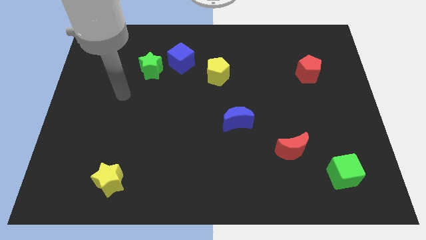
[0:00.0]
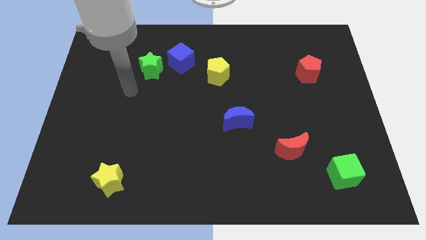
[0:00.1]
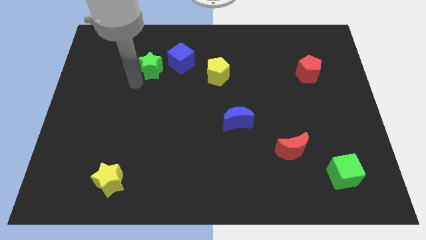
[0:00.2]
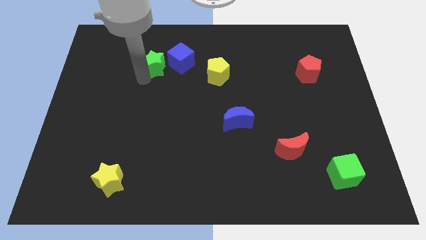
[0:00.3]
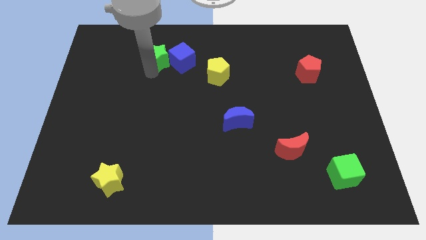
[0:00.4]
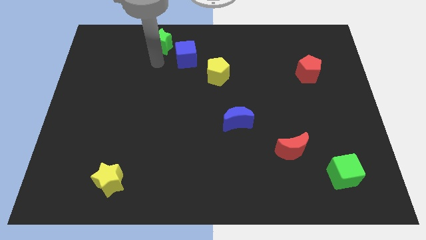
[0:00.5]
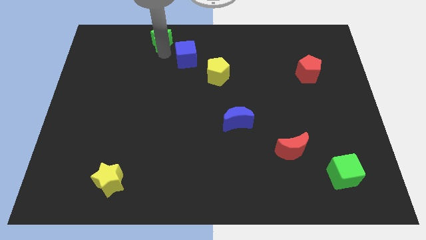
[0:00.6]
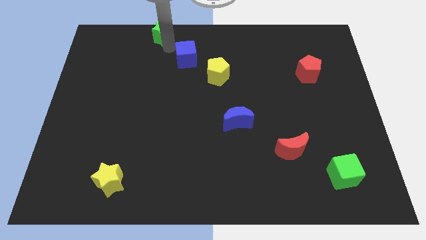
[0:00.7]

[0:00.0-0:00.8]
separate the blue cube from the green star

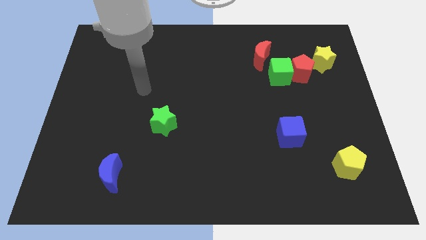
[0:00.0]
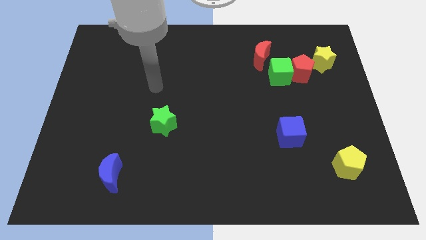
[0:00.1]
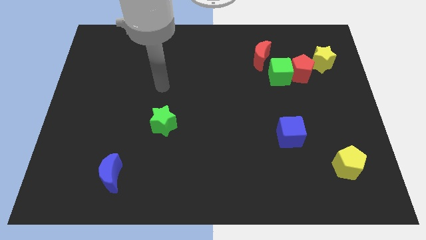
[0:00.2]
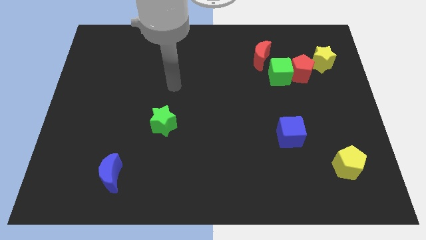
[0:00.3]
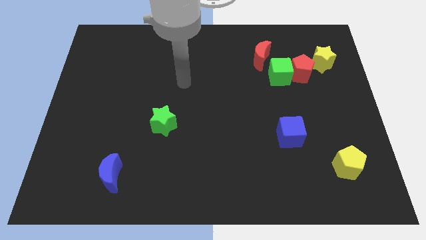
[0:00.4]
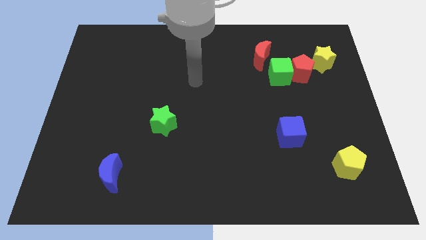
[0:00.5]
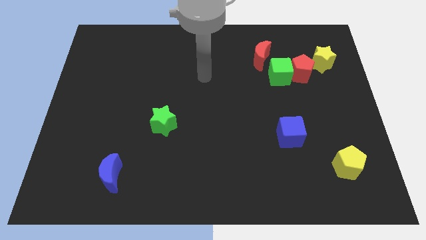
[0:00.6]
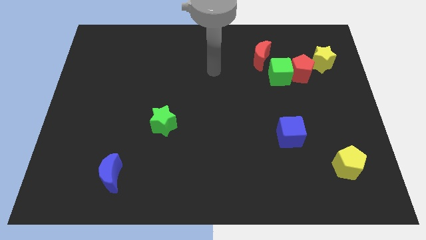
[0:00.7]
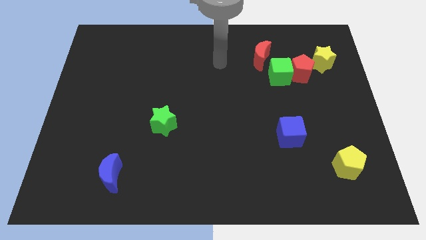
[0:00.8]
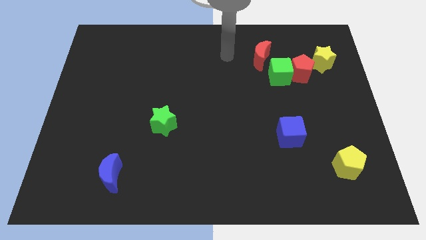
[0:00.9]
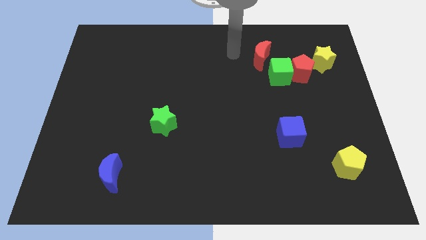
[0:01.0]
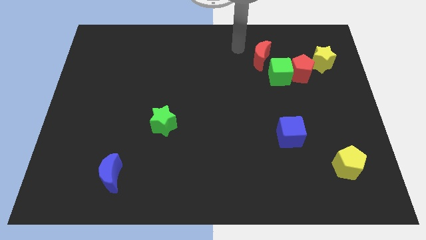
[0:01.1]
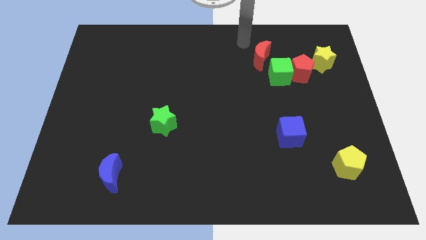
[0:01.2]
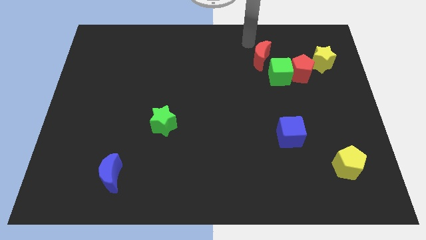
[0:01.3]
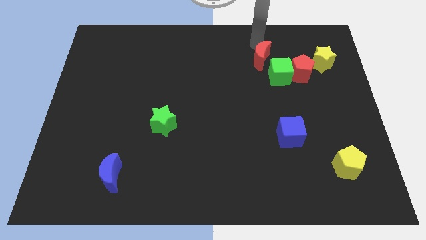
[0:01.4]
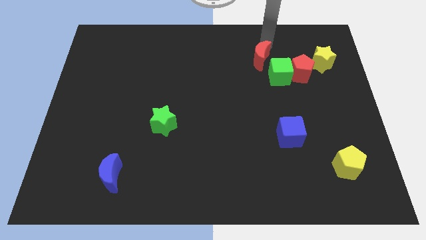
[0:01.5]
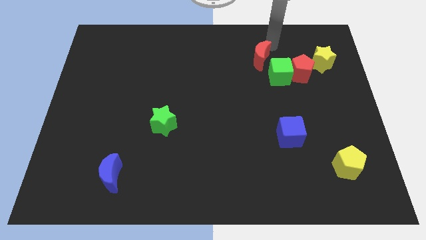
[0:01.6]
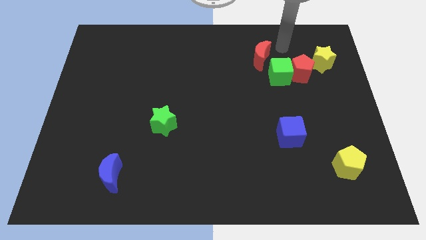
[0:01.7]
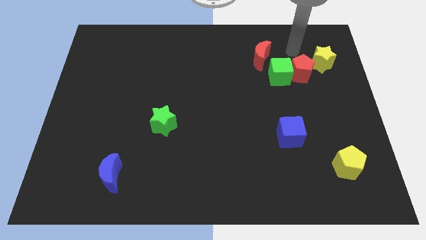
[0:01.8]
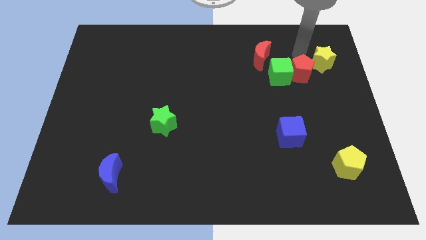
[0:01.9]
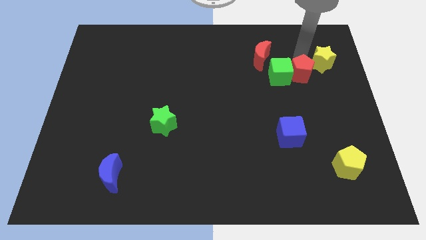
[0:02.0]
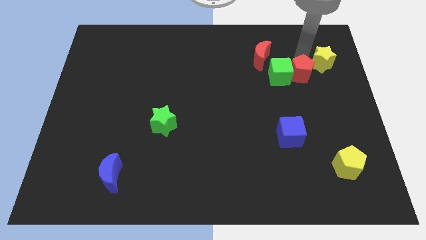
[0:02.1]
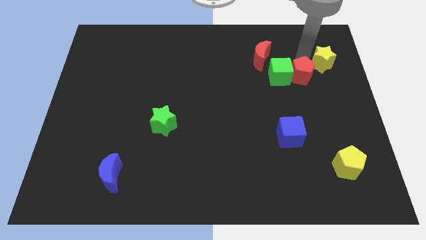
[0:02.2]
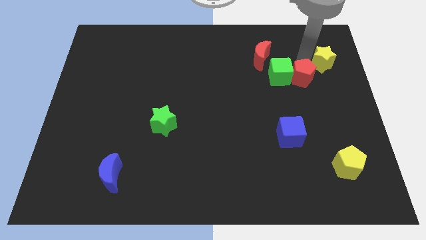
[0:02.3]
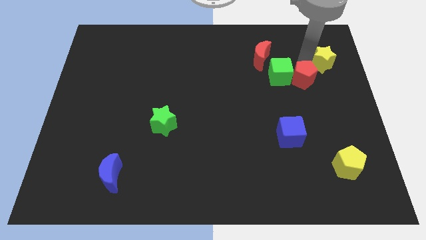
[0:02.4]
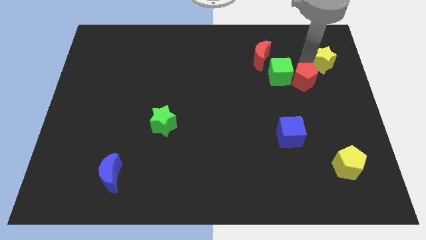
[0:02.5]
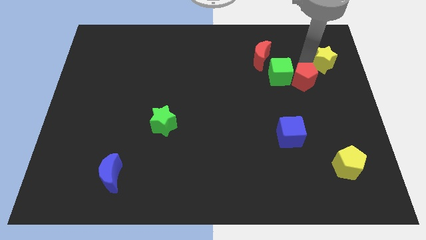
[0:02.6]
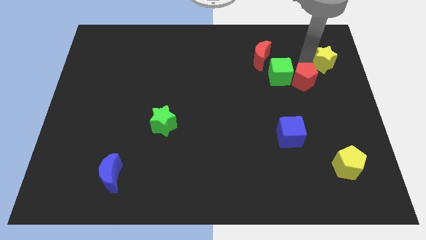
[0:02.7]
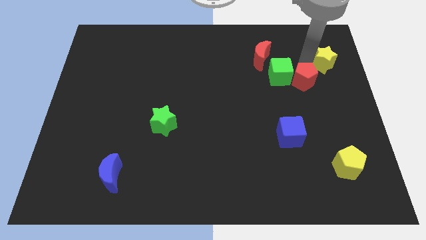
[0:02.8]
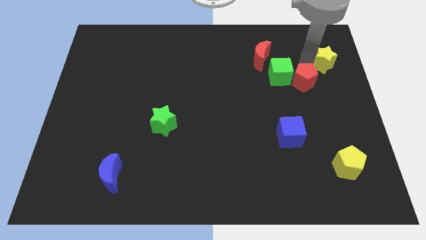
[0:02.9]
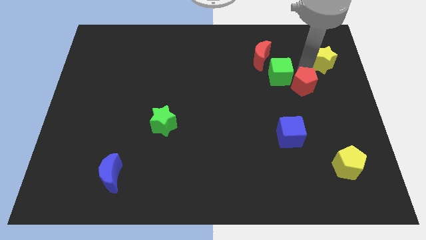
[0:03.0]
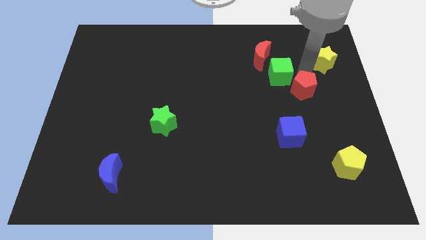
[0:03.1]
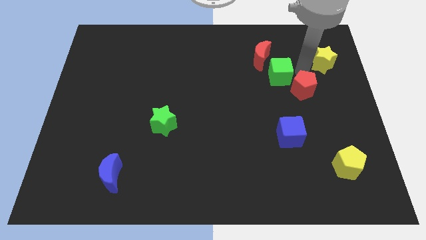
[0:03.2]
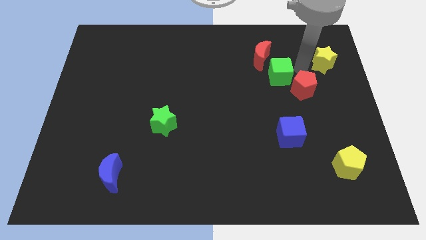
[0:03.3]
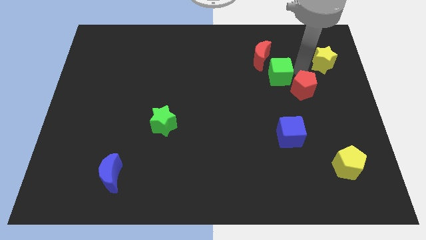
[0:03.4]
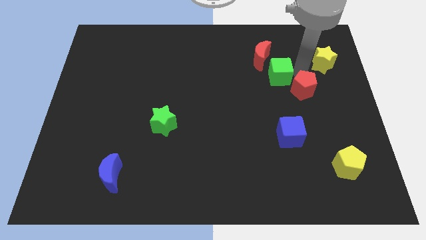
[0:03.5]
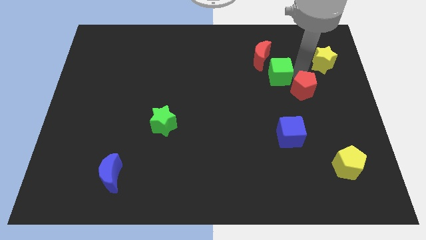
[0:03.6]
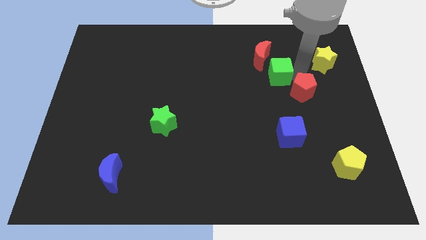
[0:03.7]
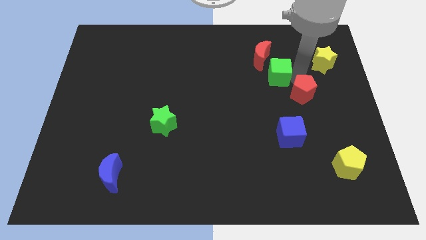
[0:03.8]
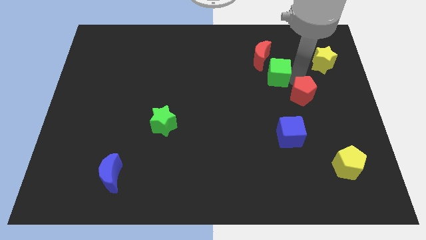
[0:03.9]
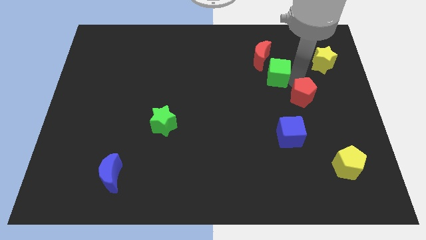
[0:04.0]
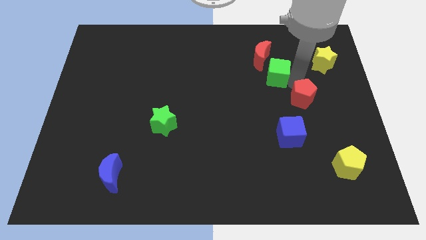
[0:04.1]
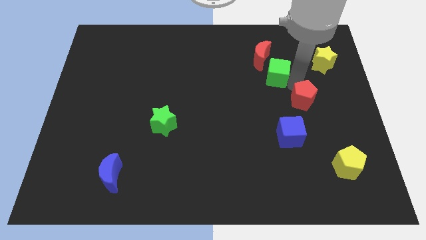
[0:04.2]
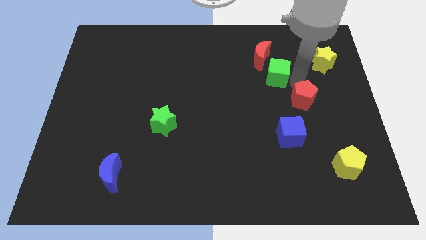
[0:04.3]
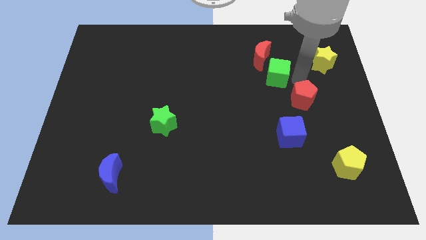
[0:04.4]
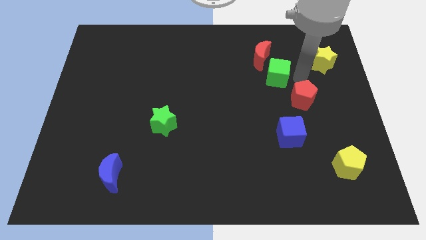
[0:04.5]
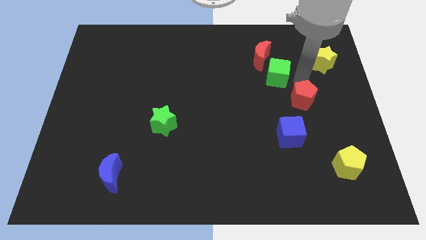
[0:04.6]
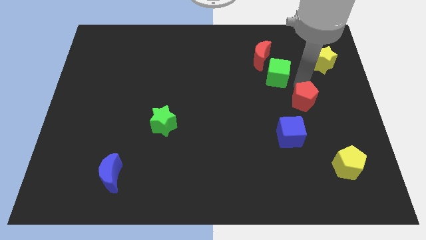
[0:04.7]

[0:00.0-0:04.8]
separate the red pentagon from the green cube and yellow star

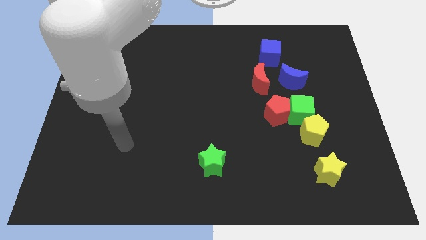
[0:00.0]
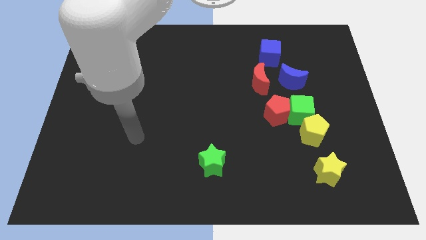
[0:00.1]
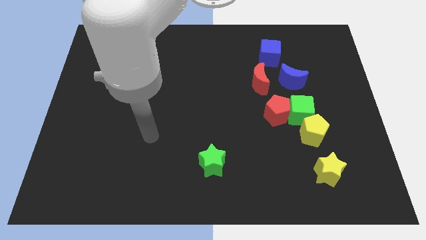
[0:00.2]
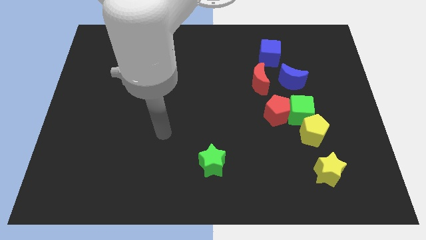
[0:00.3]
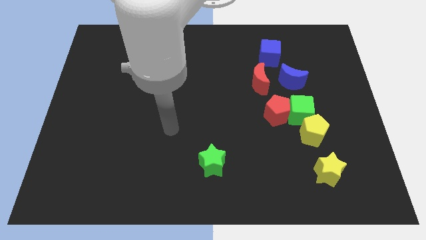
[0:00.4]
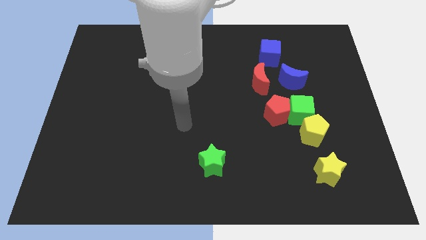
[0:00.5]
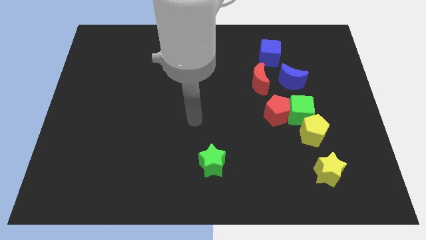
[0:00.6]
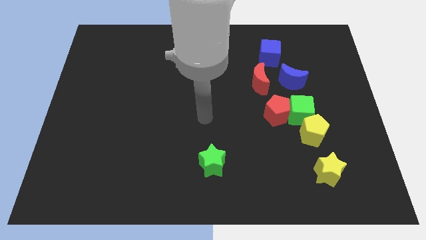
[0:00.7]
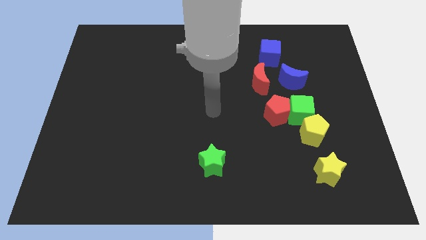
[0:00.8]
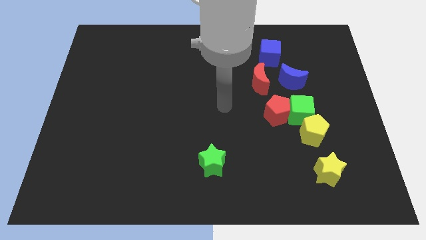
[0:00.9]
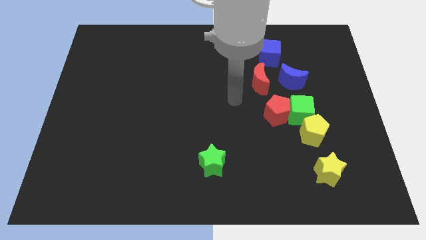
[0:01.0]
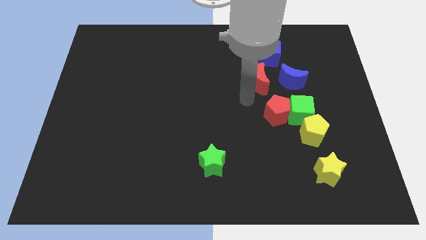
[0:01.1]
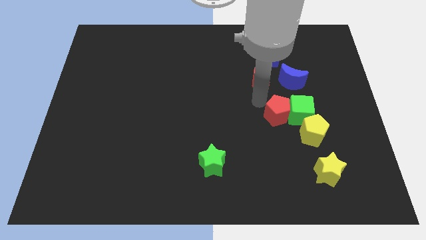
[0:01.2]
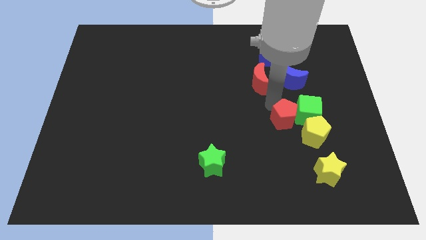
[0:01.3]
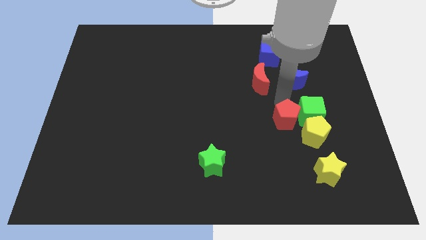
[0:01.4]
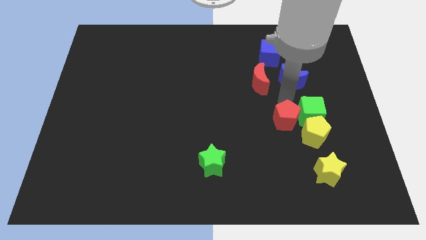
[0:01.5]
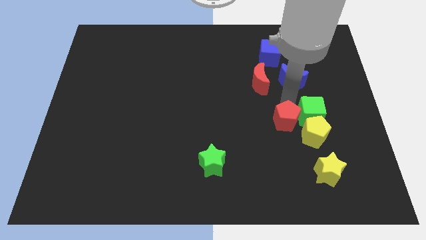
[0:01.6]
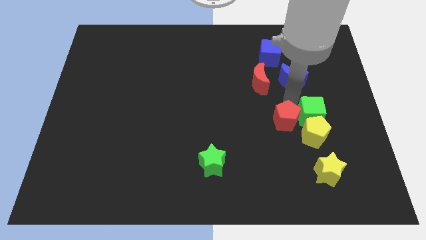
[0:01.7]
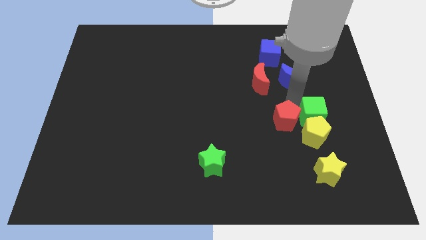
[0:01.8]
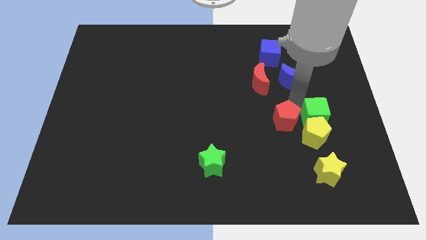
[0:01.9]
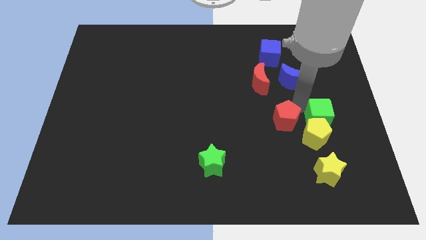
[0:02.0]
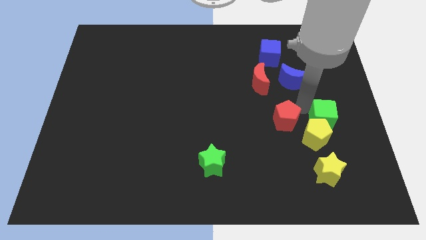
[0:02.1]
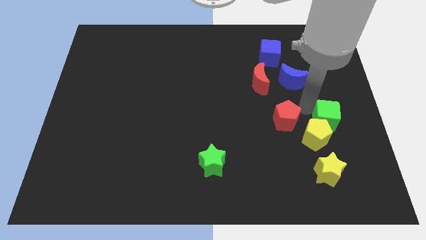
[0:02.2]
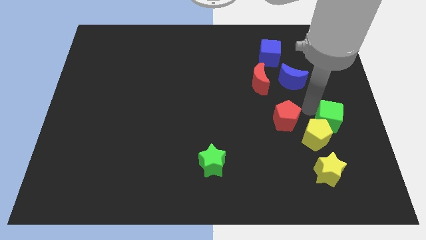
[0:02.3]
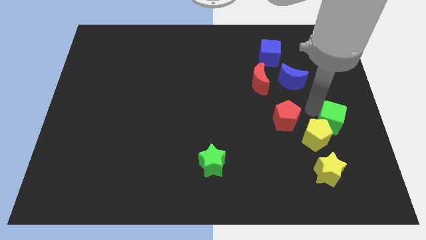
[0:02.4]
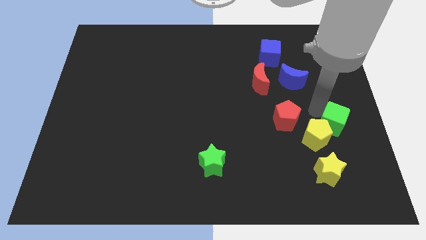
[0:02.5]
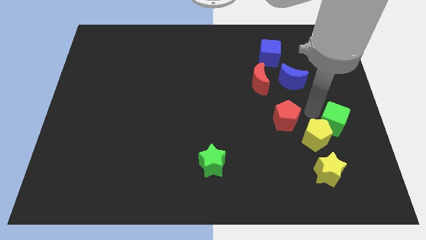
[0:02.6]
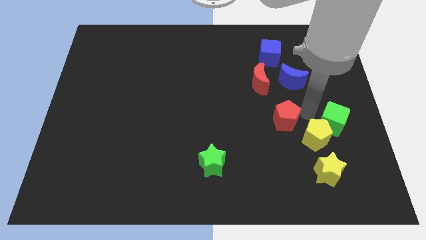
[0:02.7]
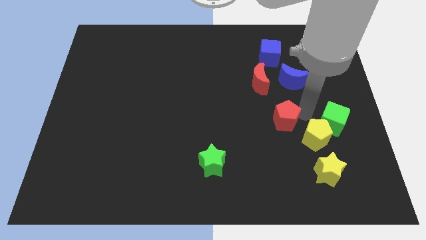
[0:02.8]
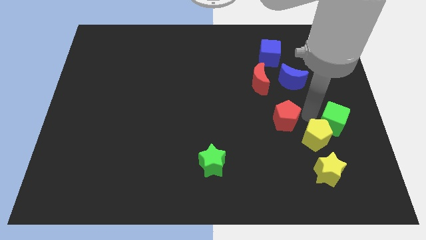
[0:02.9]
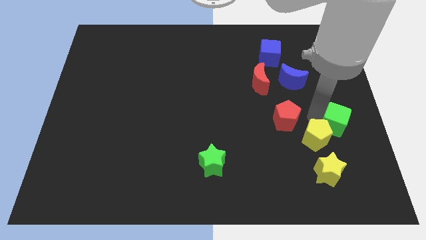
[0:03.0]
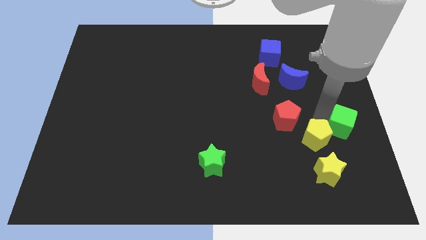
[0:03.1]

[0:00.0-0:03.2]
move the green cube away from the group of blocks

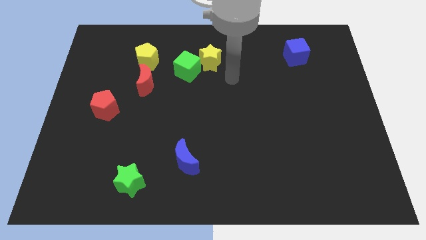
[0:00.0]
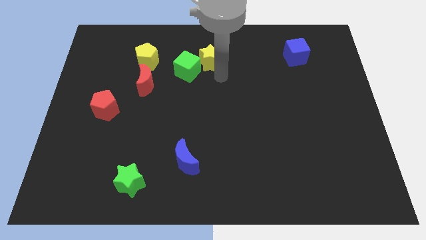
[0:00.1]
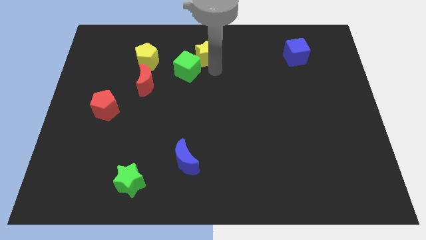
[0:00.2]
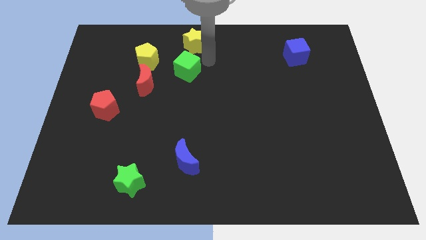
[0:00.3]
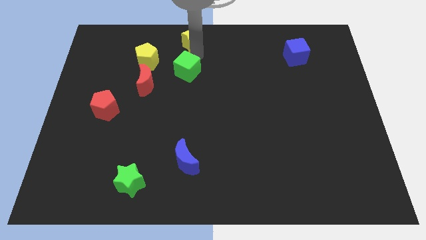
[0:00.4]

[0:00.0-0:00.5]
move the green cube away from the yellow star
